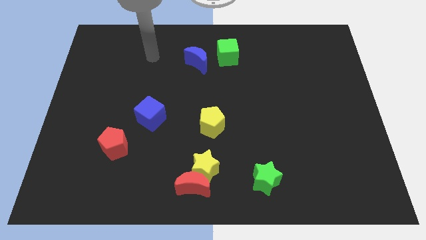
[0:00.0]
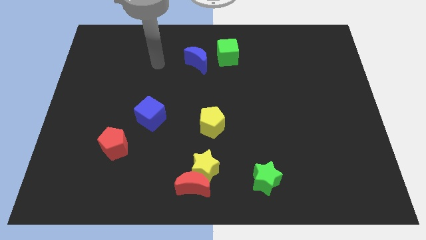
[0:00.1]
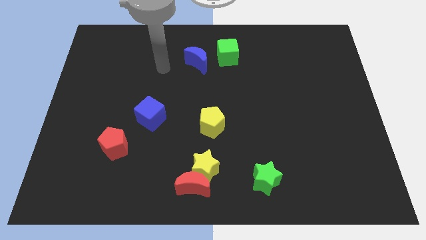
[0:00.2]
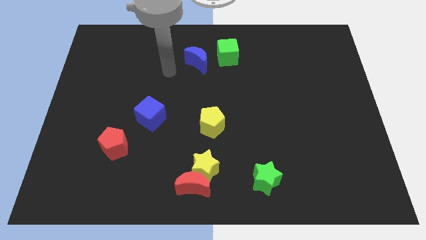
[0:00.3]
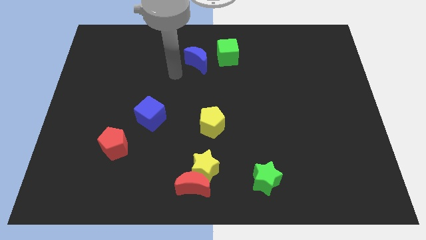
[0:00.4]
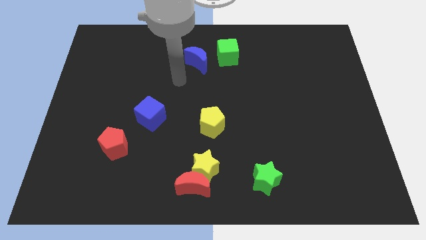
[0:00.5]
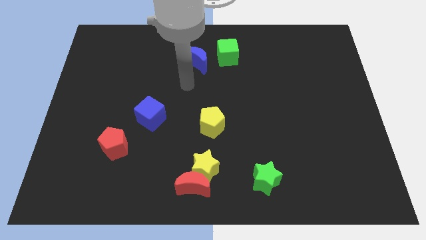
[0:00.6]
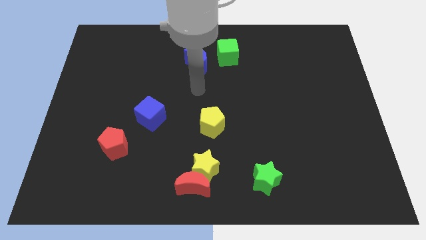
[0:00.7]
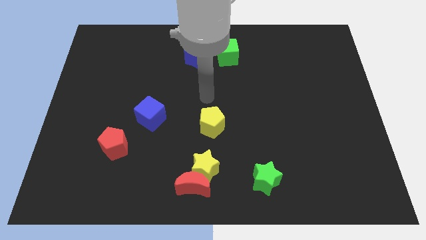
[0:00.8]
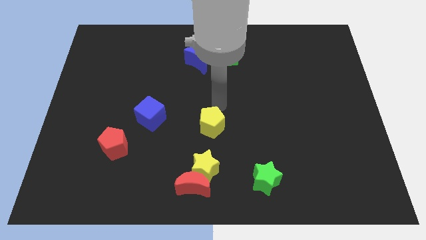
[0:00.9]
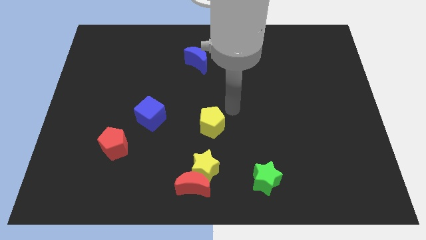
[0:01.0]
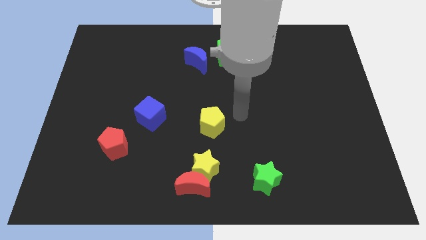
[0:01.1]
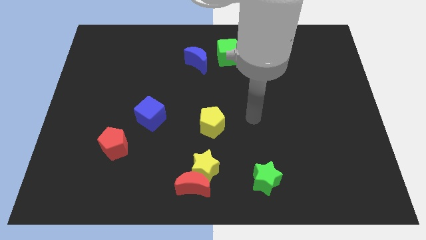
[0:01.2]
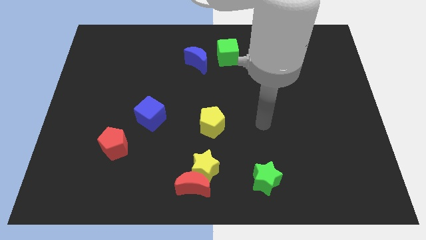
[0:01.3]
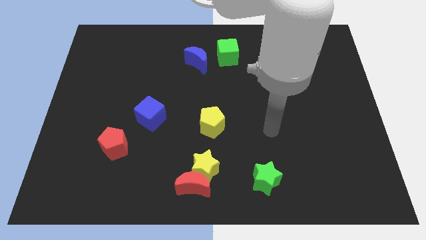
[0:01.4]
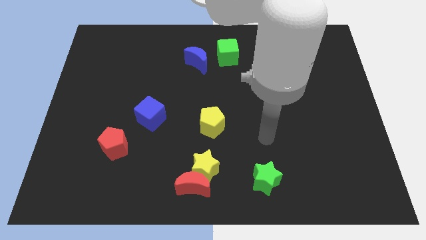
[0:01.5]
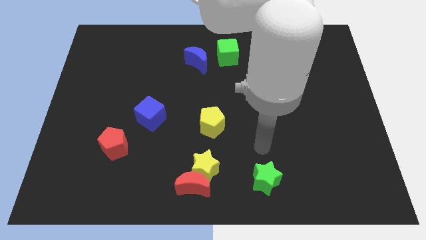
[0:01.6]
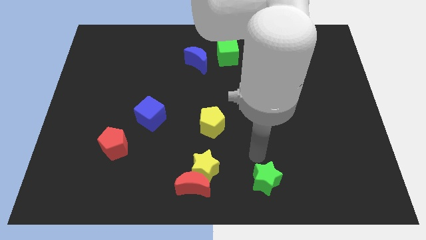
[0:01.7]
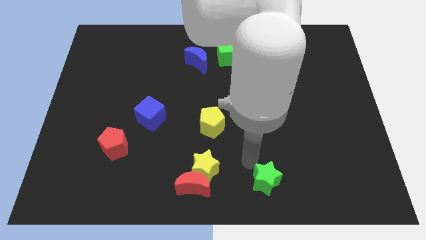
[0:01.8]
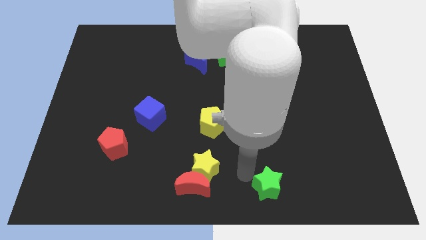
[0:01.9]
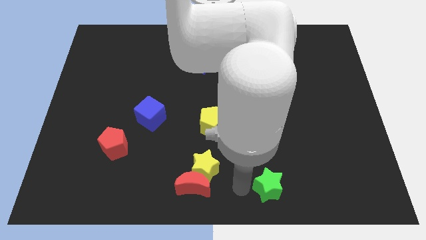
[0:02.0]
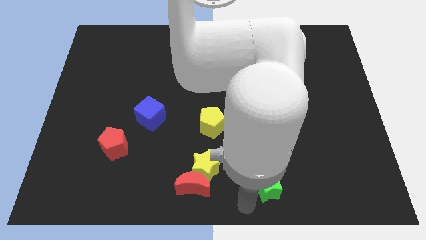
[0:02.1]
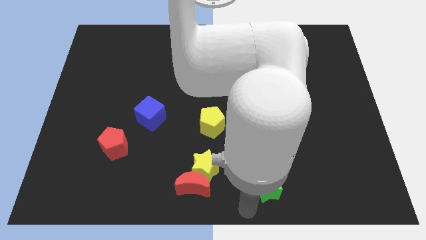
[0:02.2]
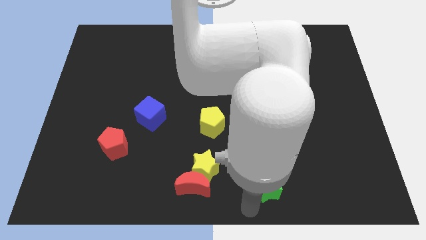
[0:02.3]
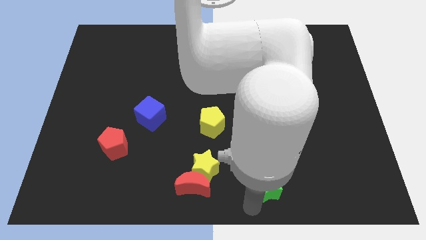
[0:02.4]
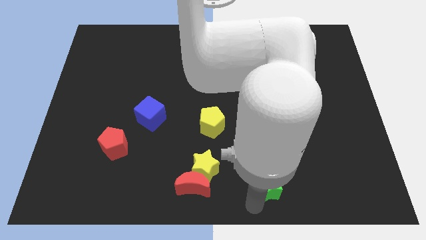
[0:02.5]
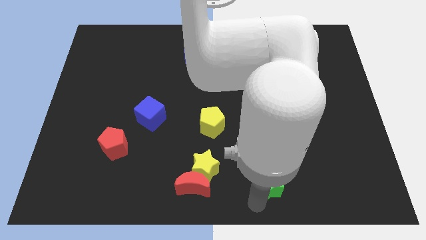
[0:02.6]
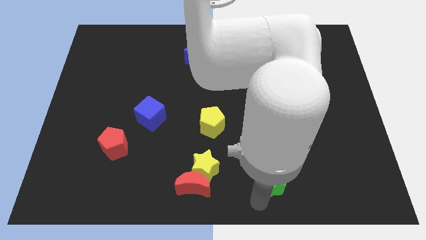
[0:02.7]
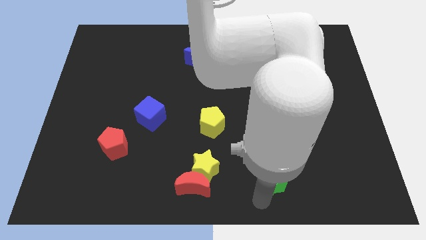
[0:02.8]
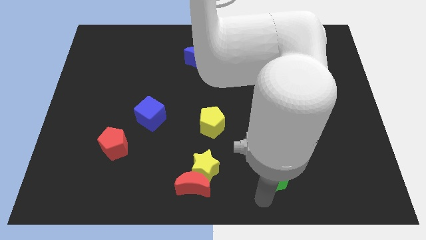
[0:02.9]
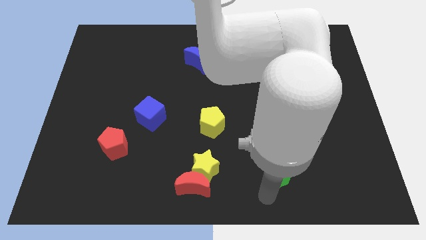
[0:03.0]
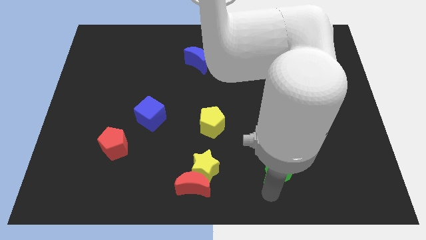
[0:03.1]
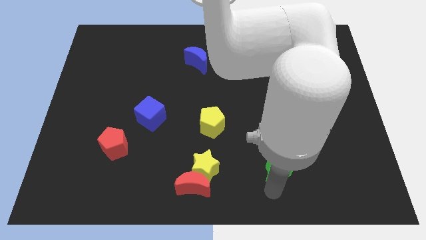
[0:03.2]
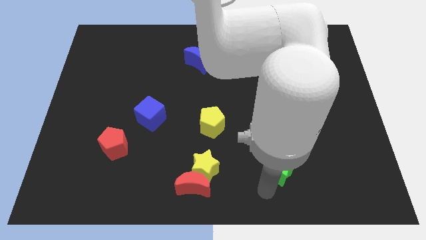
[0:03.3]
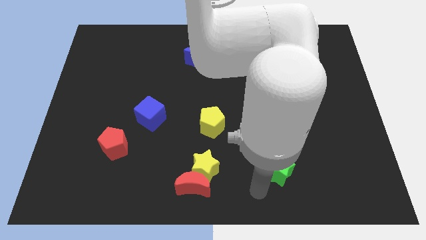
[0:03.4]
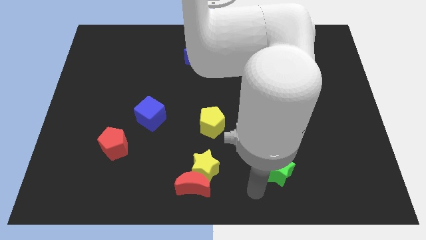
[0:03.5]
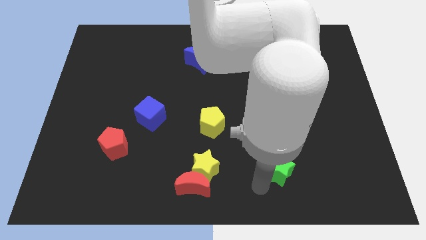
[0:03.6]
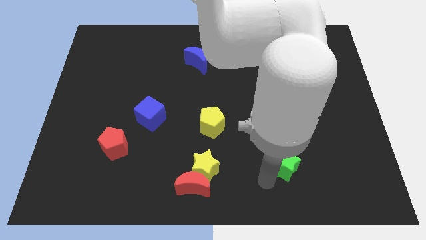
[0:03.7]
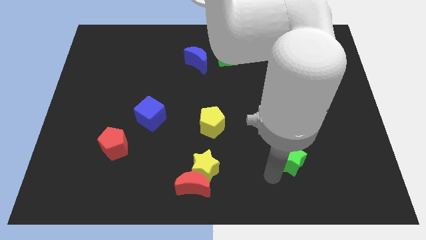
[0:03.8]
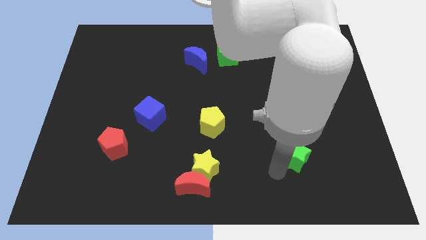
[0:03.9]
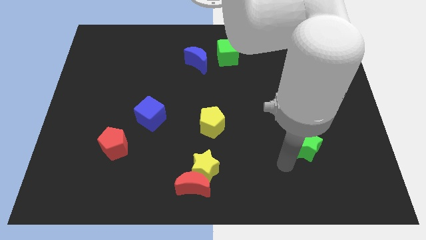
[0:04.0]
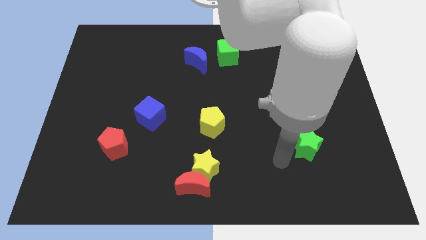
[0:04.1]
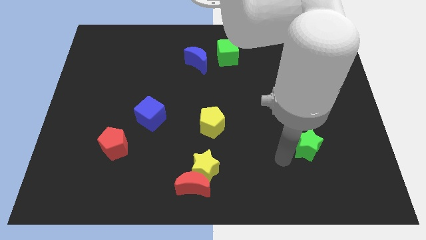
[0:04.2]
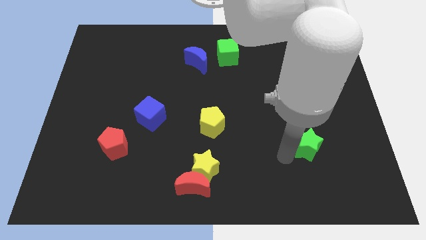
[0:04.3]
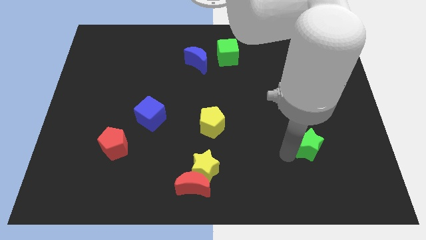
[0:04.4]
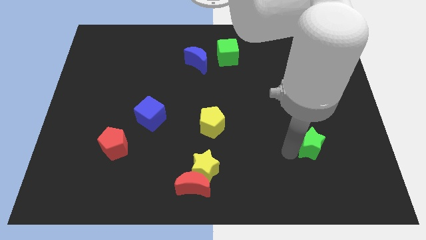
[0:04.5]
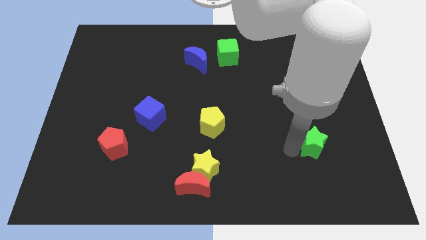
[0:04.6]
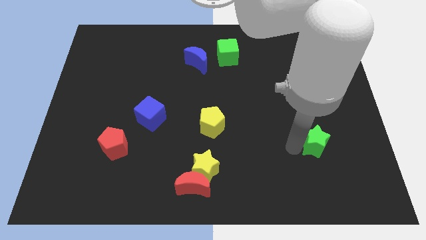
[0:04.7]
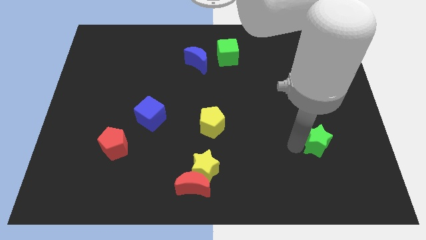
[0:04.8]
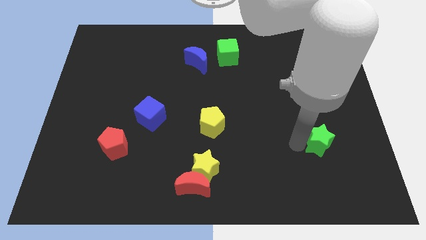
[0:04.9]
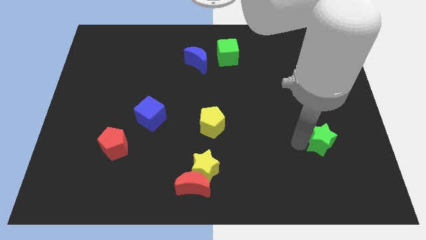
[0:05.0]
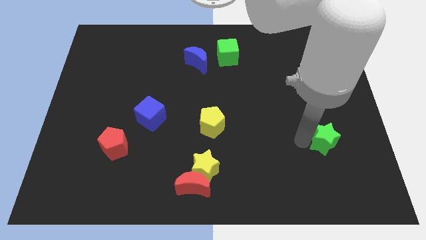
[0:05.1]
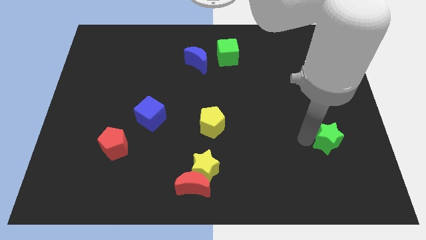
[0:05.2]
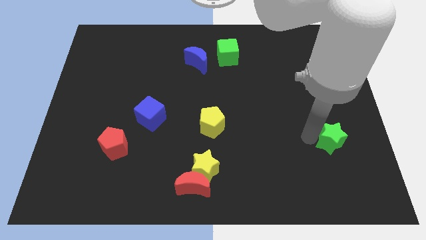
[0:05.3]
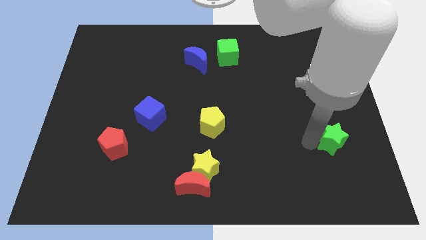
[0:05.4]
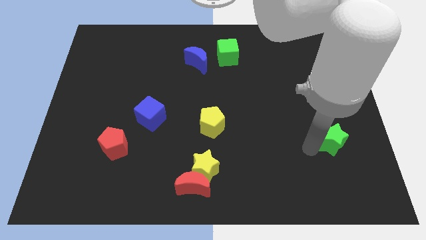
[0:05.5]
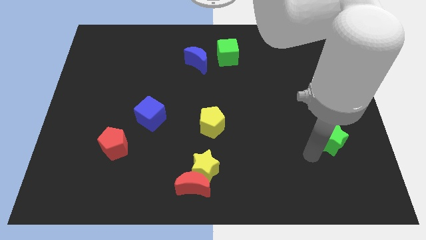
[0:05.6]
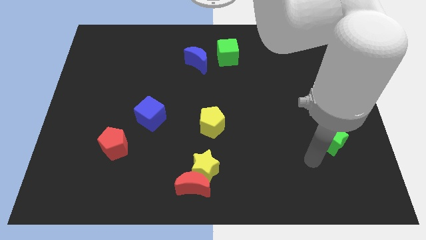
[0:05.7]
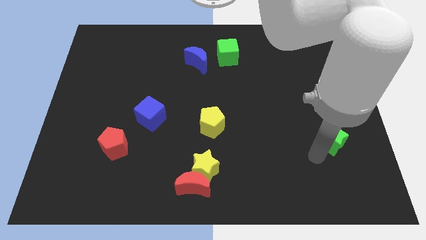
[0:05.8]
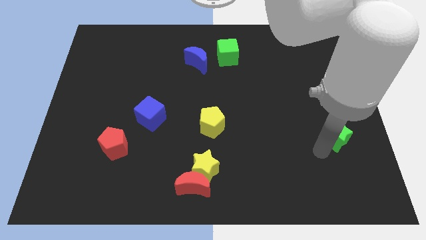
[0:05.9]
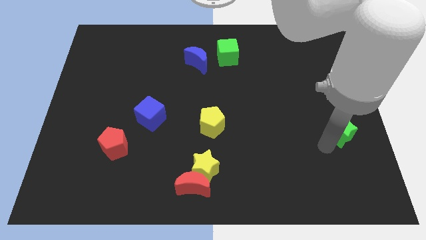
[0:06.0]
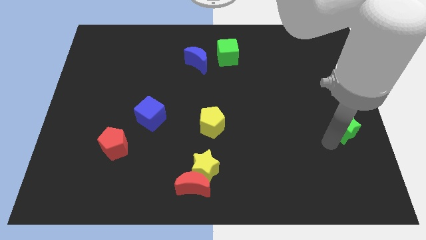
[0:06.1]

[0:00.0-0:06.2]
move the green star to the center right
